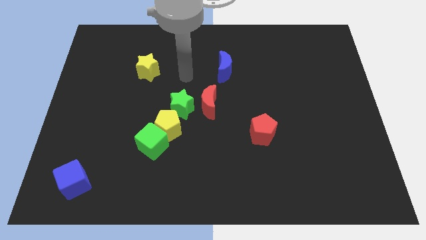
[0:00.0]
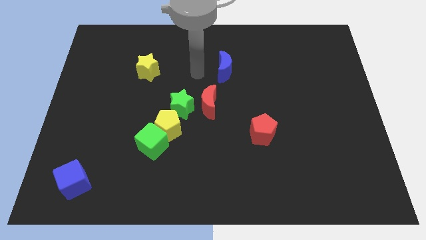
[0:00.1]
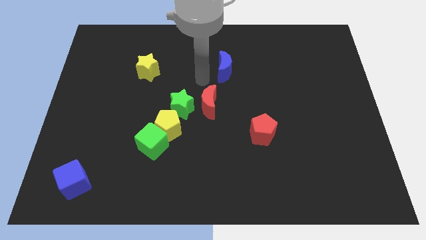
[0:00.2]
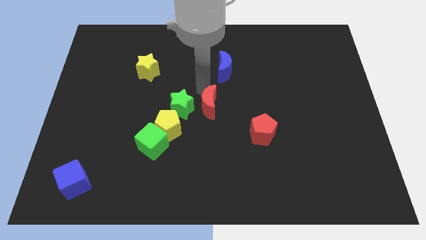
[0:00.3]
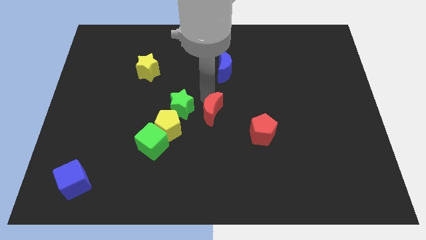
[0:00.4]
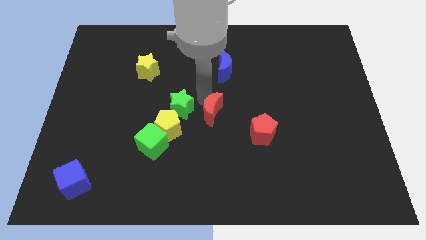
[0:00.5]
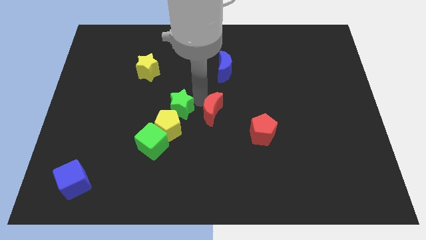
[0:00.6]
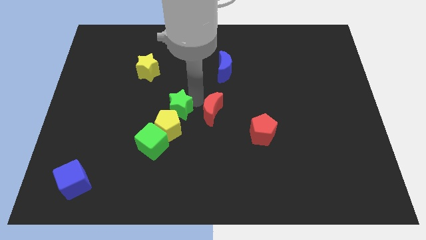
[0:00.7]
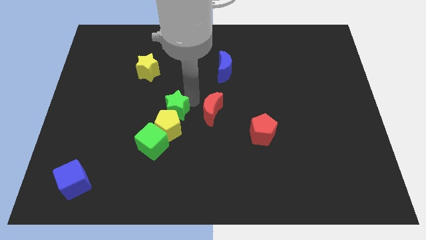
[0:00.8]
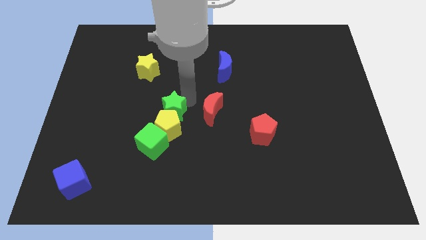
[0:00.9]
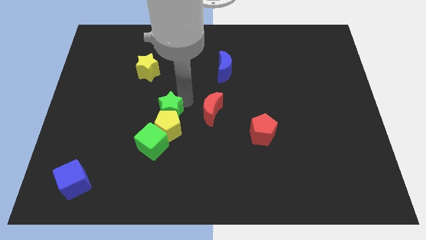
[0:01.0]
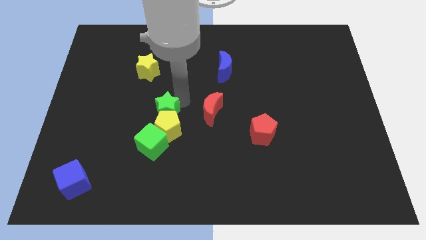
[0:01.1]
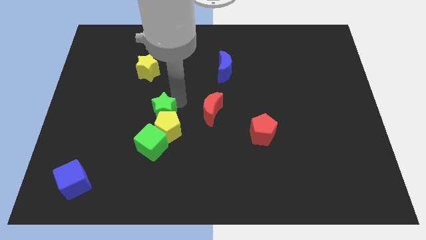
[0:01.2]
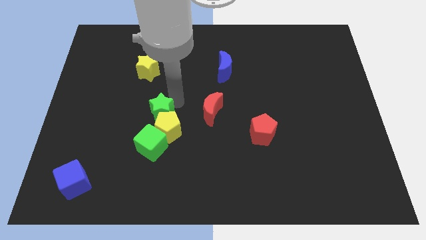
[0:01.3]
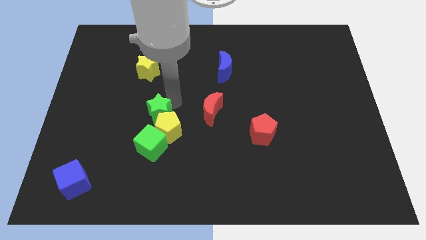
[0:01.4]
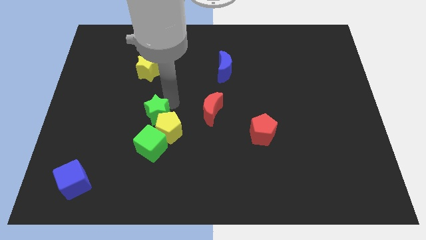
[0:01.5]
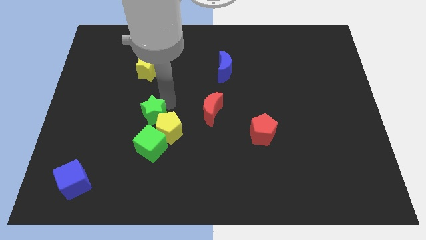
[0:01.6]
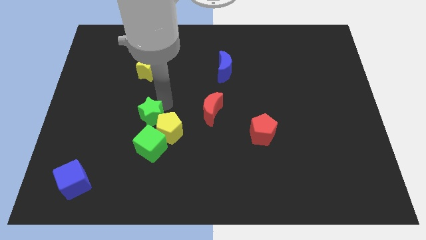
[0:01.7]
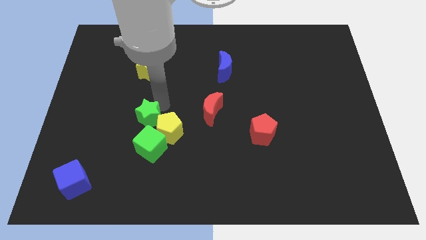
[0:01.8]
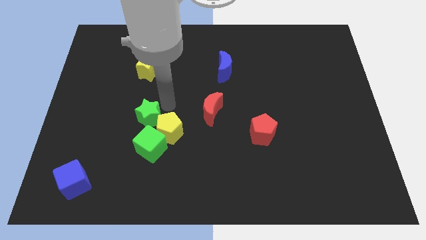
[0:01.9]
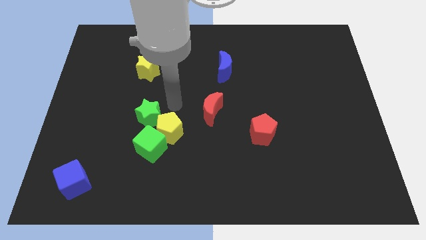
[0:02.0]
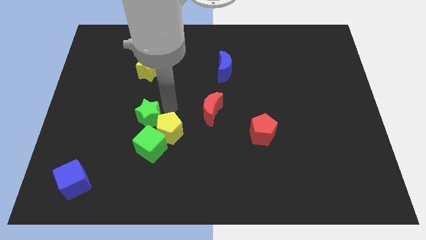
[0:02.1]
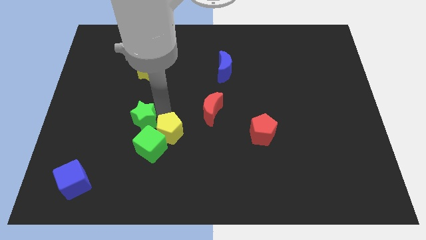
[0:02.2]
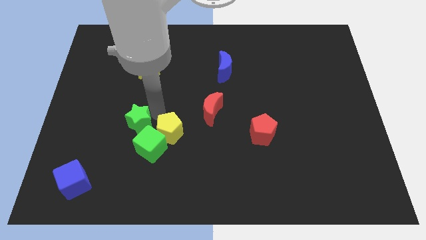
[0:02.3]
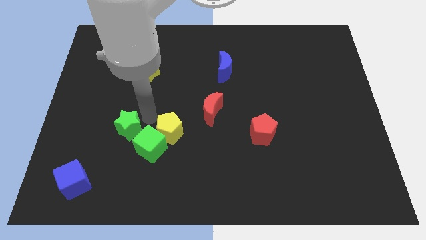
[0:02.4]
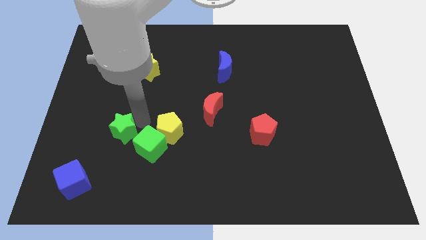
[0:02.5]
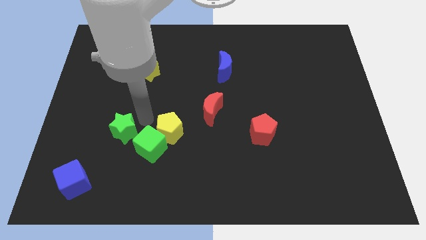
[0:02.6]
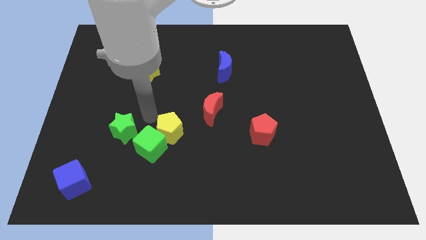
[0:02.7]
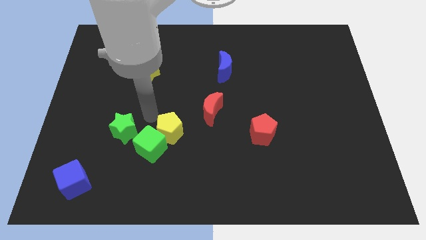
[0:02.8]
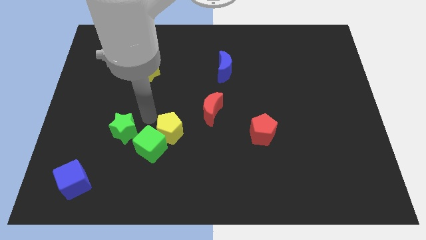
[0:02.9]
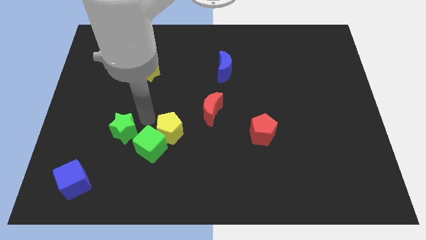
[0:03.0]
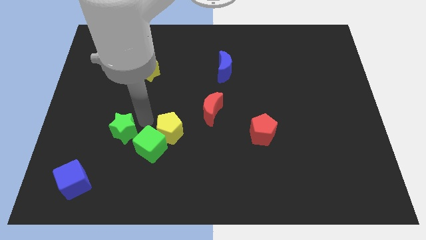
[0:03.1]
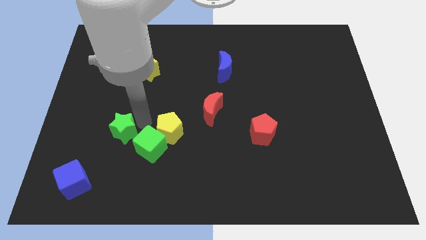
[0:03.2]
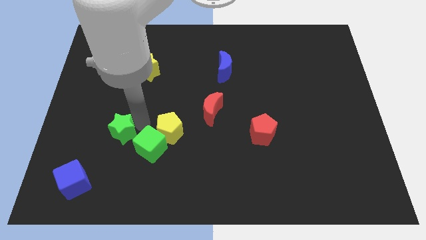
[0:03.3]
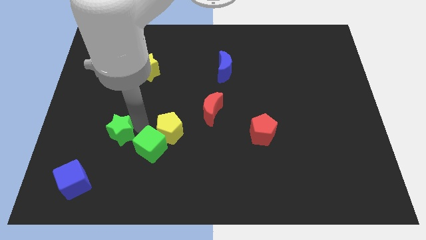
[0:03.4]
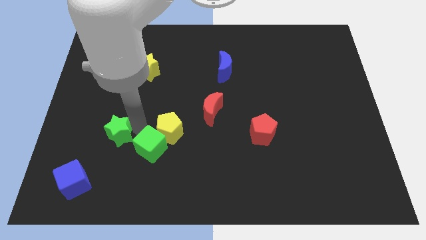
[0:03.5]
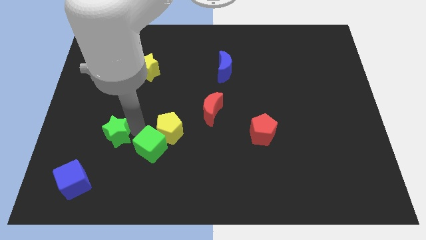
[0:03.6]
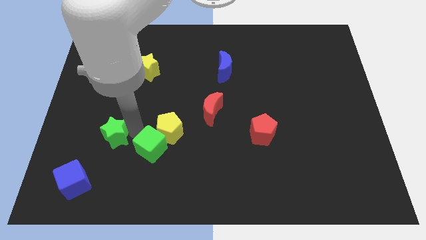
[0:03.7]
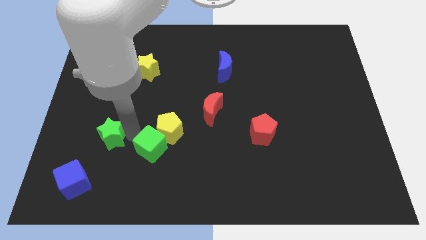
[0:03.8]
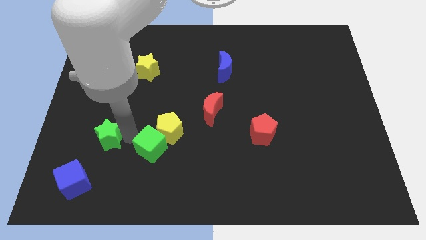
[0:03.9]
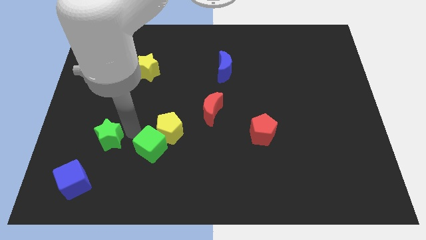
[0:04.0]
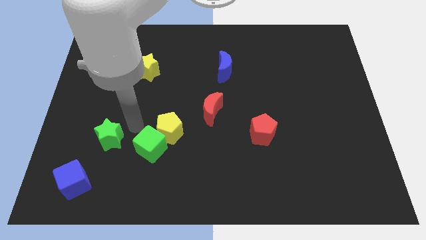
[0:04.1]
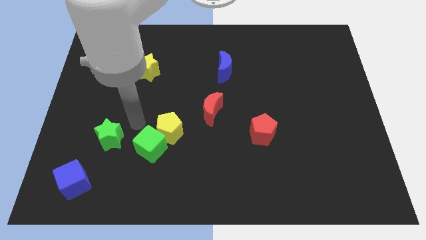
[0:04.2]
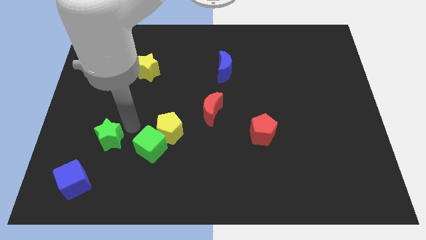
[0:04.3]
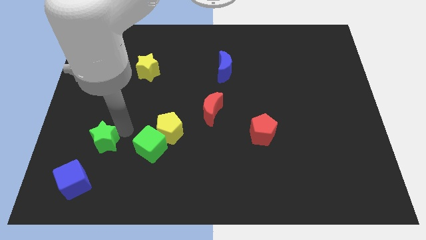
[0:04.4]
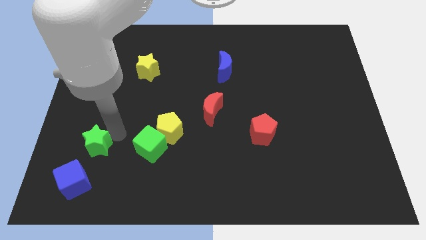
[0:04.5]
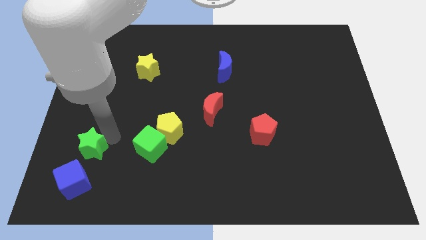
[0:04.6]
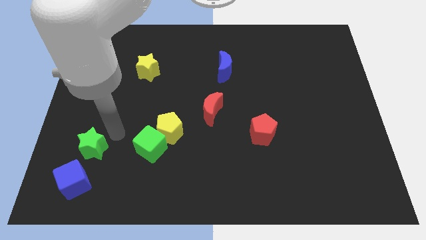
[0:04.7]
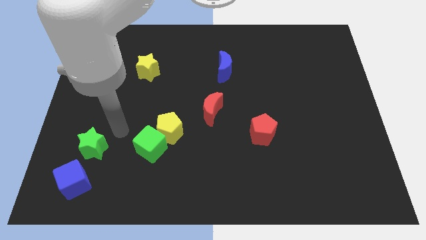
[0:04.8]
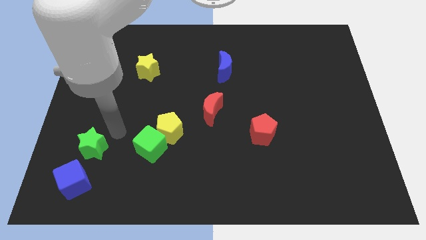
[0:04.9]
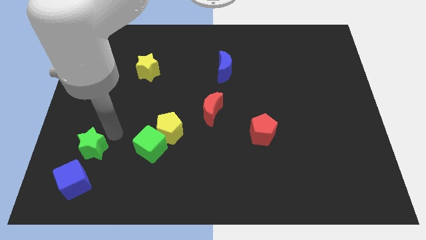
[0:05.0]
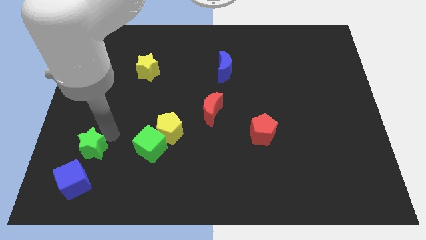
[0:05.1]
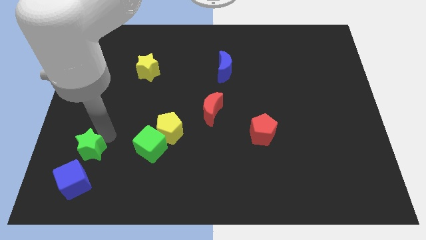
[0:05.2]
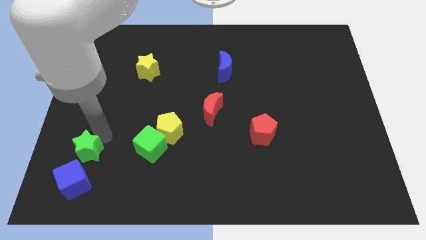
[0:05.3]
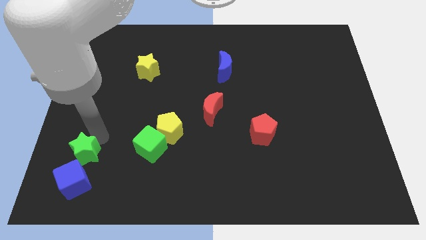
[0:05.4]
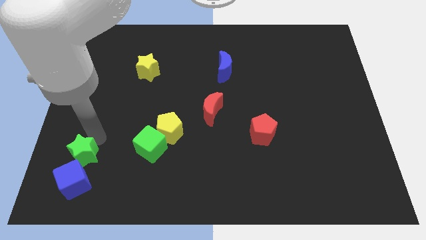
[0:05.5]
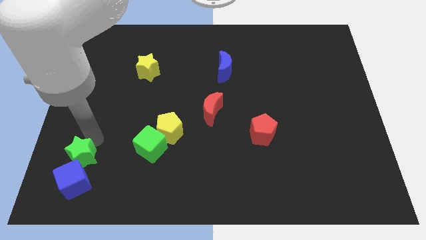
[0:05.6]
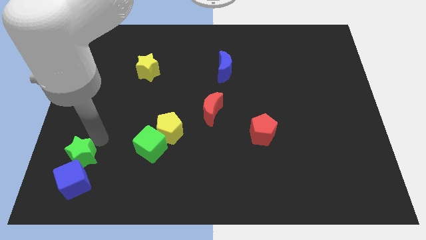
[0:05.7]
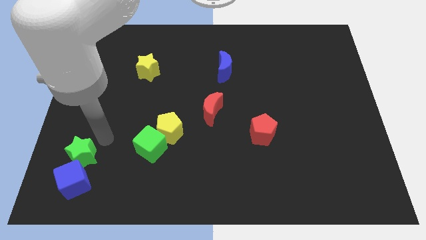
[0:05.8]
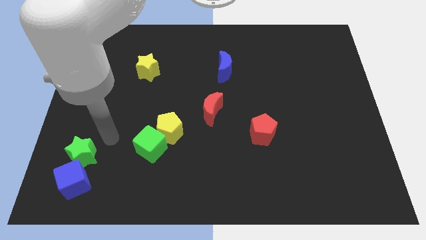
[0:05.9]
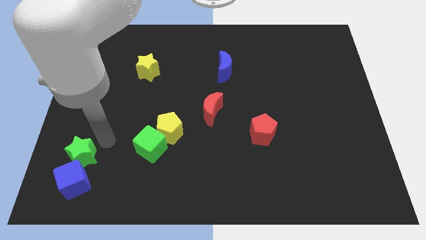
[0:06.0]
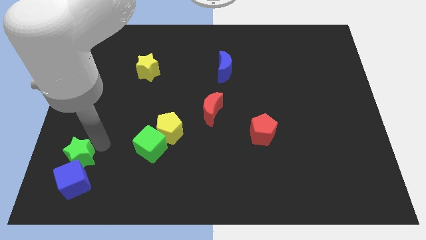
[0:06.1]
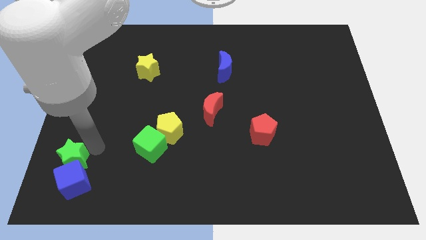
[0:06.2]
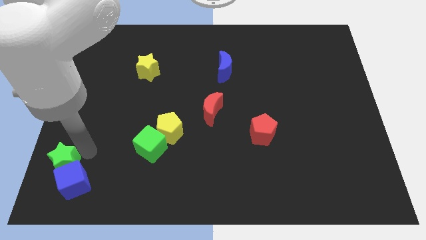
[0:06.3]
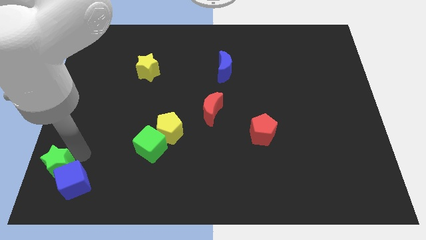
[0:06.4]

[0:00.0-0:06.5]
slide the green star to the bottom left corner
